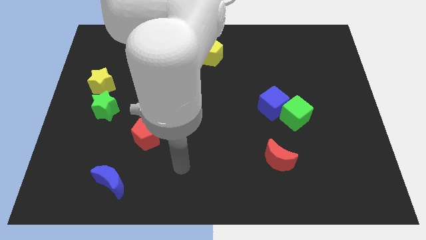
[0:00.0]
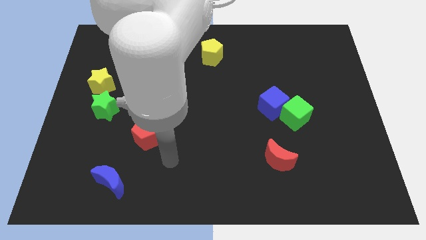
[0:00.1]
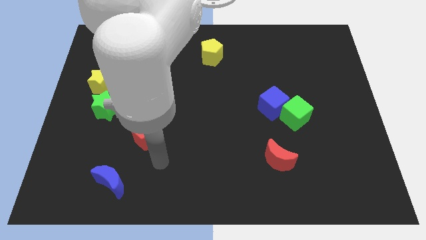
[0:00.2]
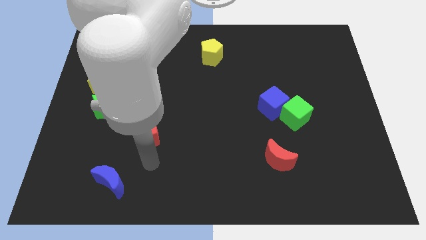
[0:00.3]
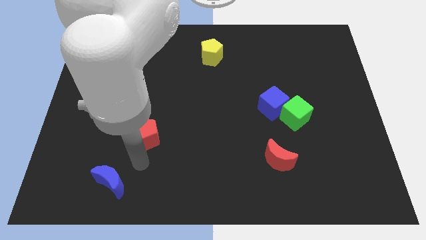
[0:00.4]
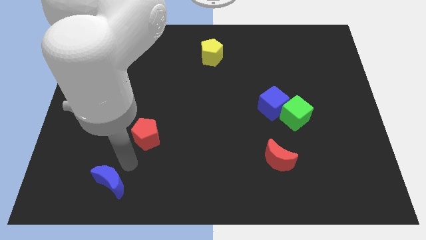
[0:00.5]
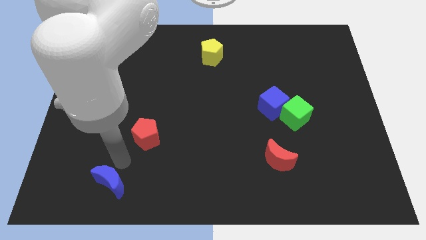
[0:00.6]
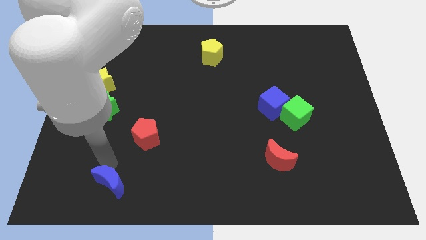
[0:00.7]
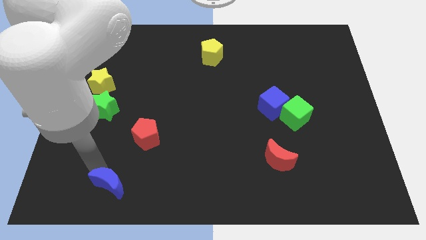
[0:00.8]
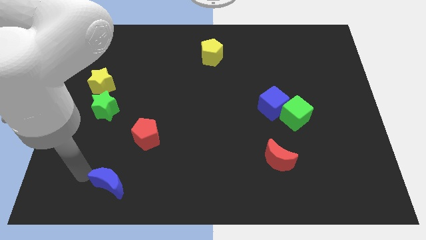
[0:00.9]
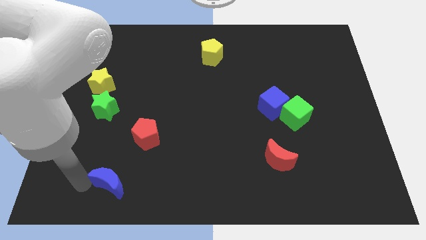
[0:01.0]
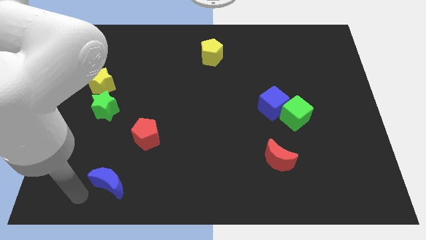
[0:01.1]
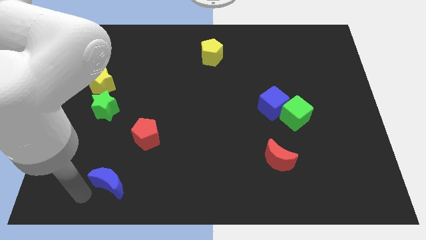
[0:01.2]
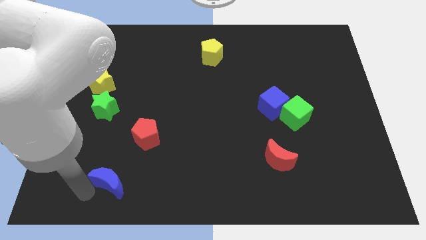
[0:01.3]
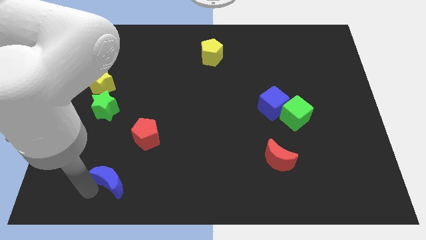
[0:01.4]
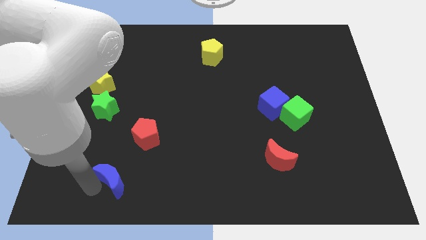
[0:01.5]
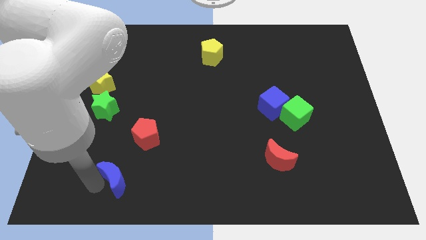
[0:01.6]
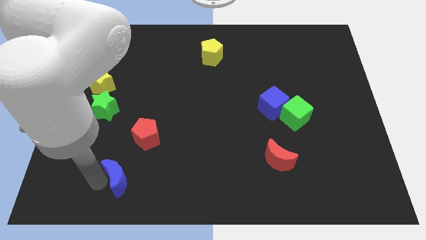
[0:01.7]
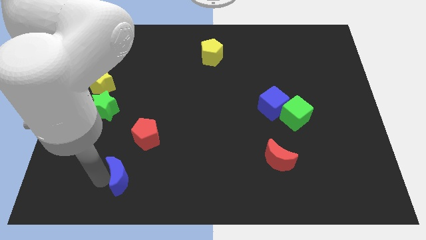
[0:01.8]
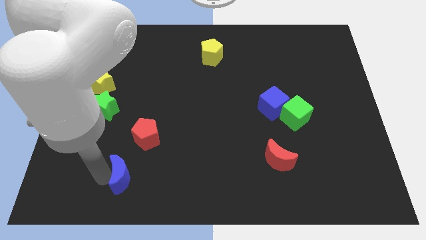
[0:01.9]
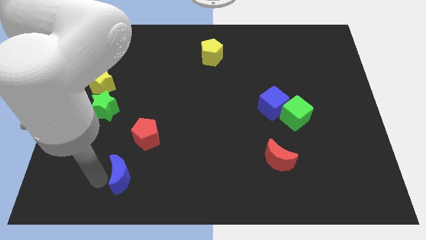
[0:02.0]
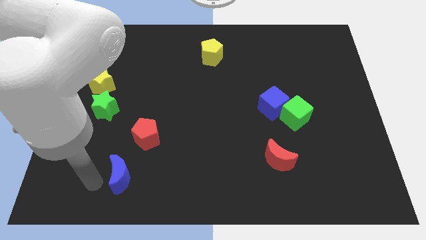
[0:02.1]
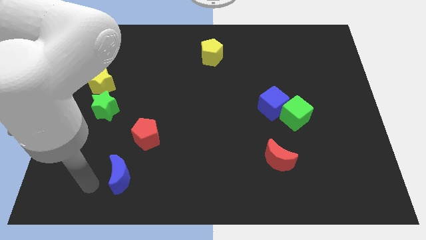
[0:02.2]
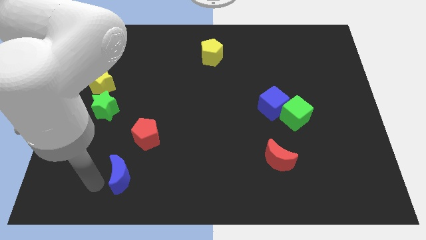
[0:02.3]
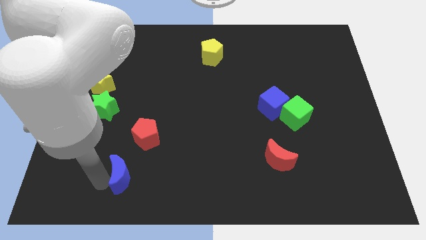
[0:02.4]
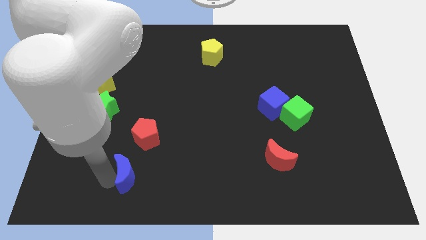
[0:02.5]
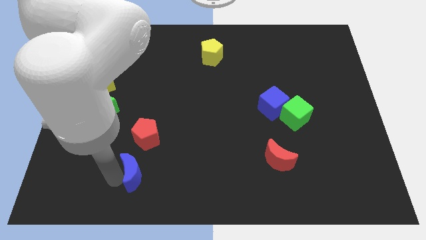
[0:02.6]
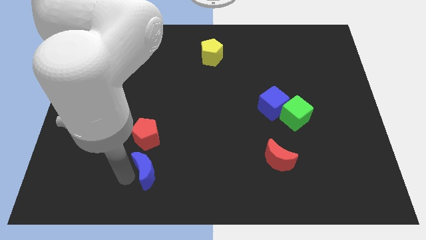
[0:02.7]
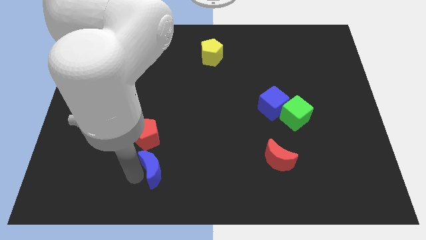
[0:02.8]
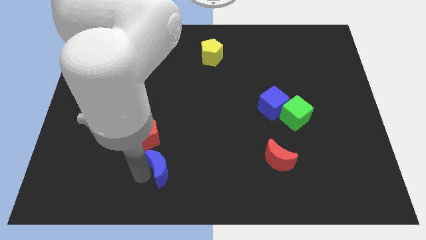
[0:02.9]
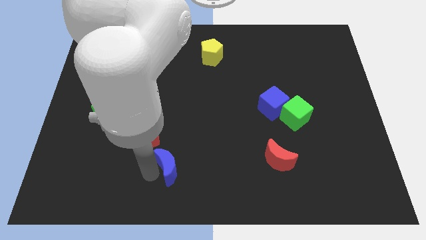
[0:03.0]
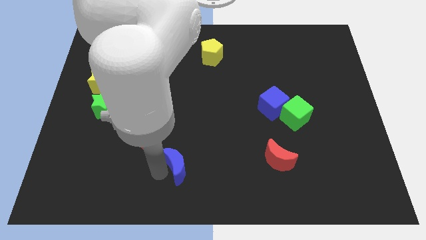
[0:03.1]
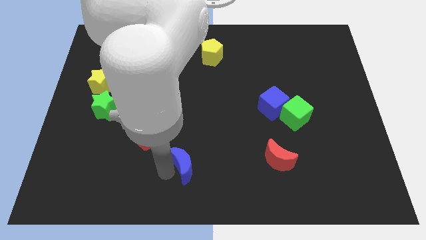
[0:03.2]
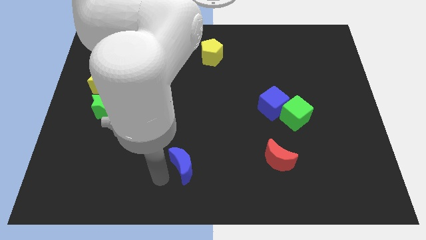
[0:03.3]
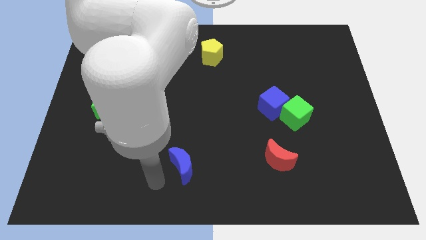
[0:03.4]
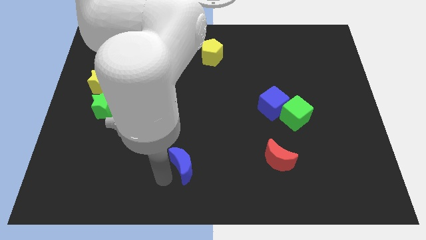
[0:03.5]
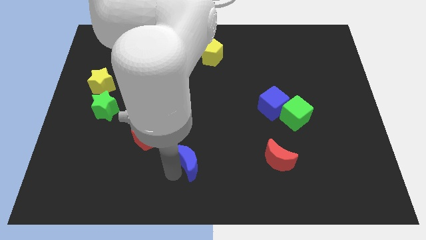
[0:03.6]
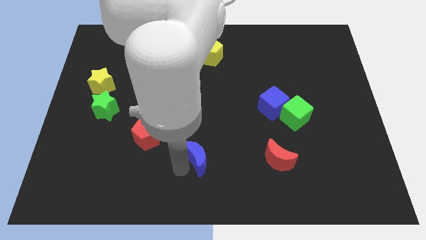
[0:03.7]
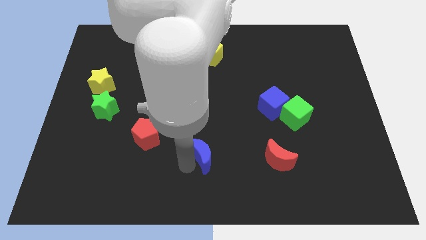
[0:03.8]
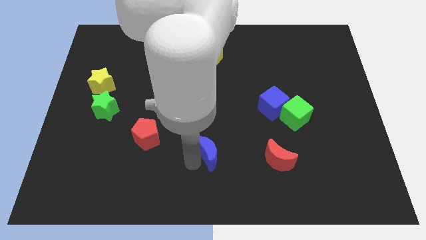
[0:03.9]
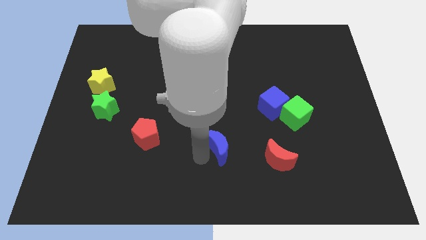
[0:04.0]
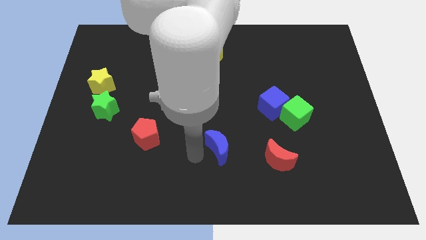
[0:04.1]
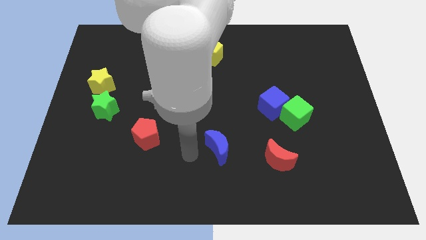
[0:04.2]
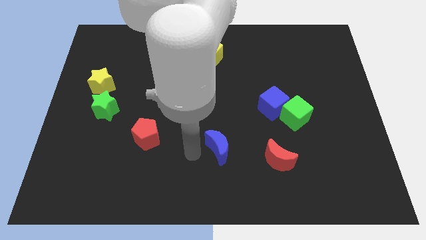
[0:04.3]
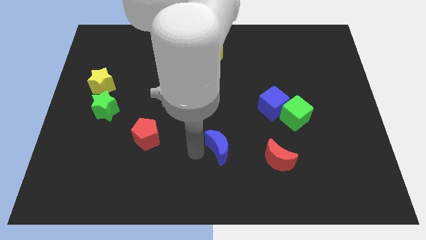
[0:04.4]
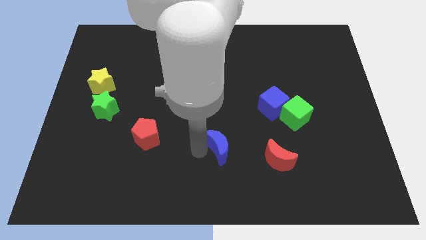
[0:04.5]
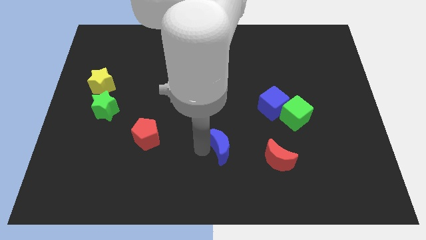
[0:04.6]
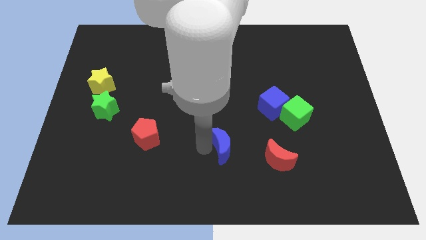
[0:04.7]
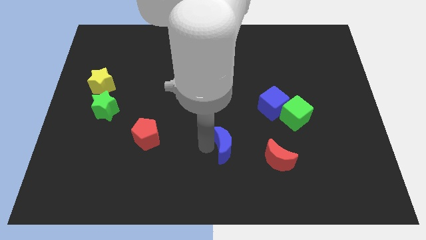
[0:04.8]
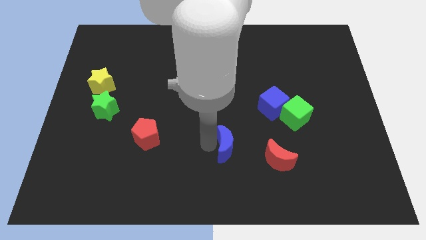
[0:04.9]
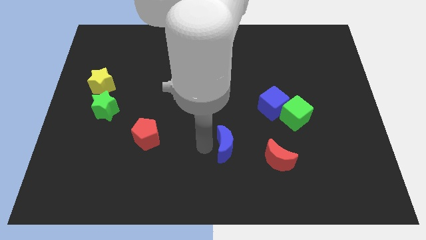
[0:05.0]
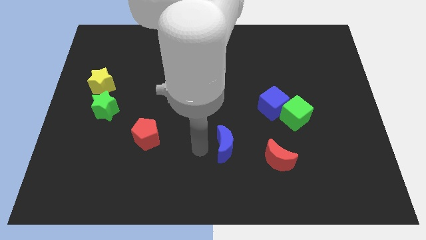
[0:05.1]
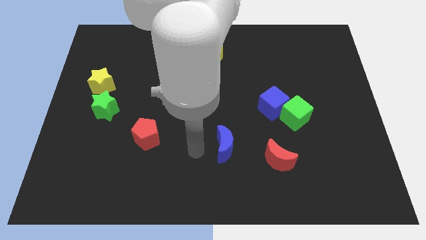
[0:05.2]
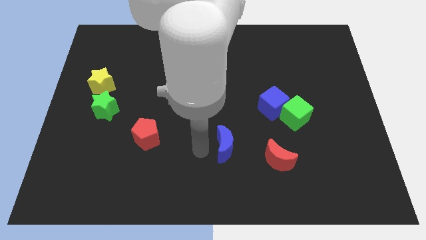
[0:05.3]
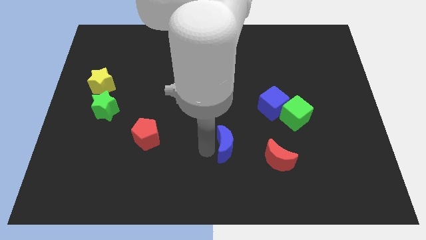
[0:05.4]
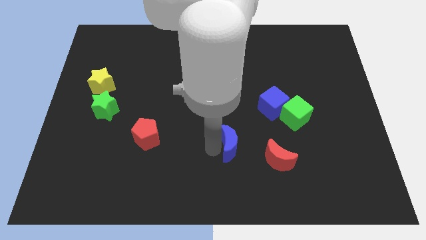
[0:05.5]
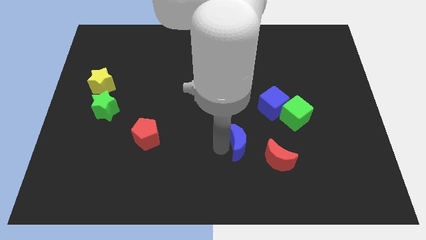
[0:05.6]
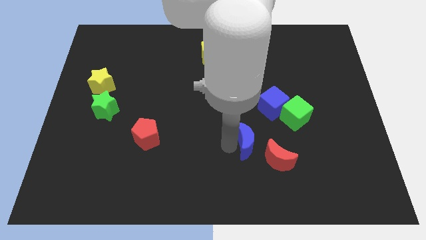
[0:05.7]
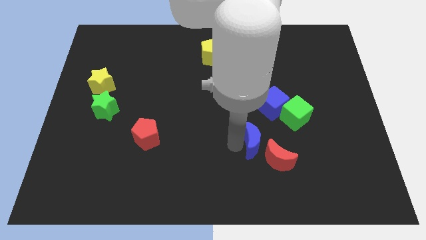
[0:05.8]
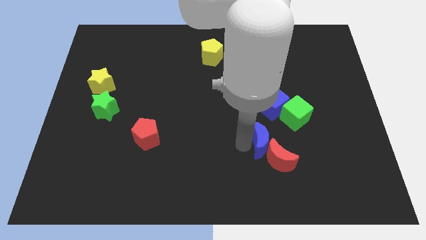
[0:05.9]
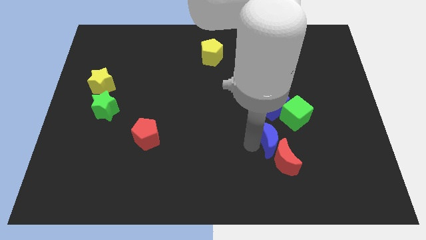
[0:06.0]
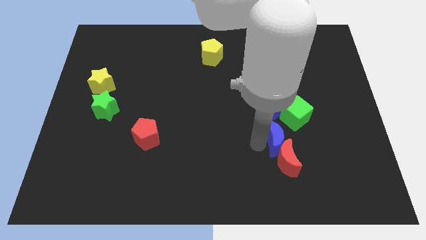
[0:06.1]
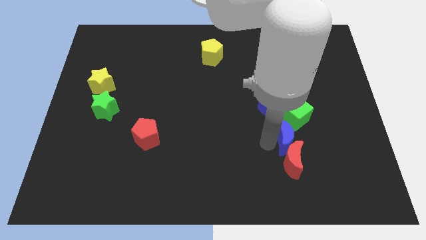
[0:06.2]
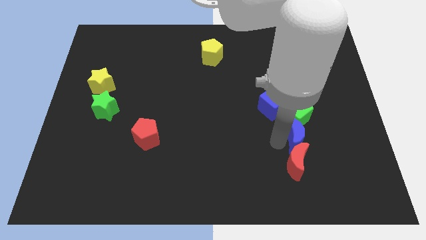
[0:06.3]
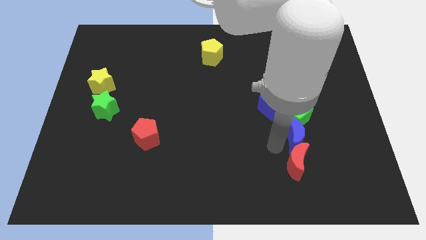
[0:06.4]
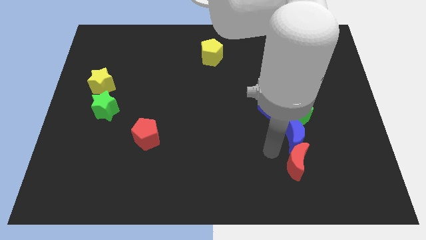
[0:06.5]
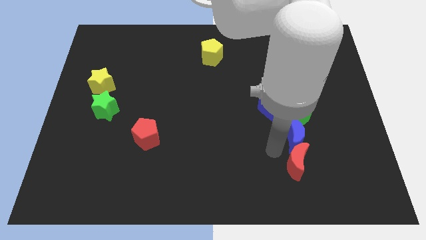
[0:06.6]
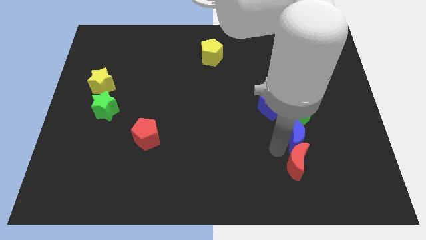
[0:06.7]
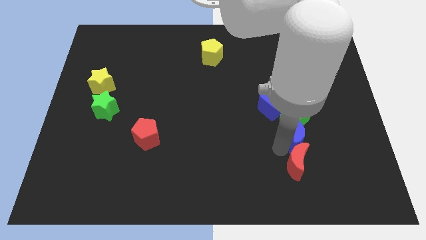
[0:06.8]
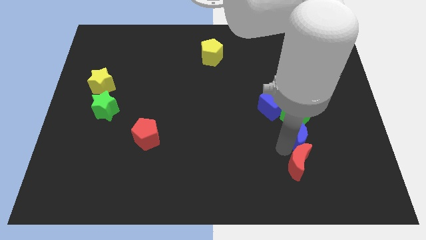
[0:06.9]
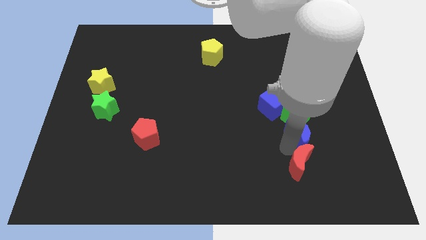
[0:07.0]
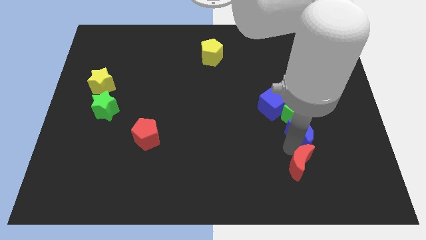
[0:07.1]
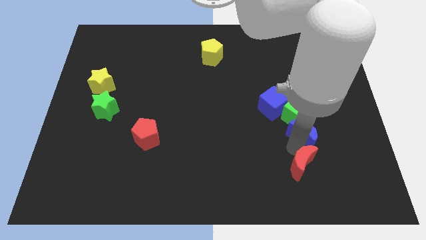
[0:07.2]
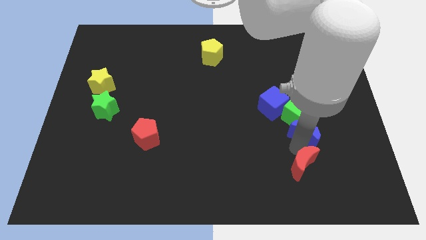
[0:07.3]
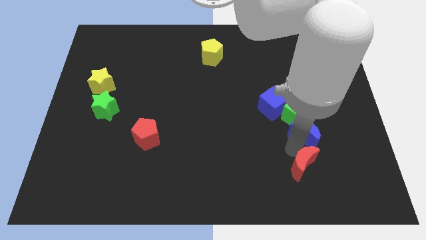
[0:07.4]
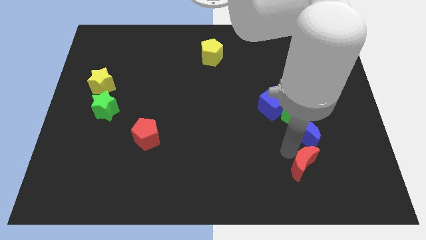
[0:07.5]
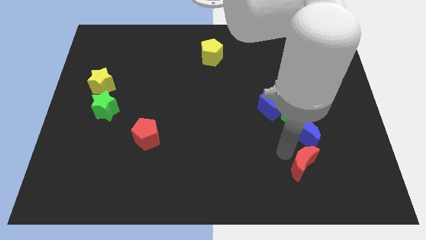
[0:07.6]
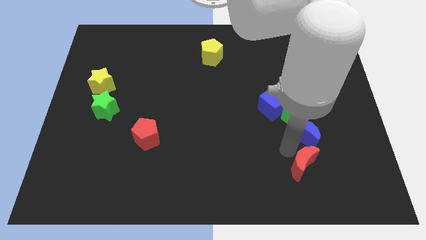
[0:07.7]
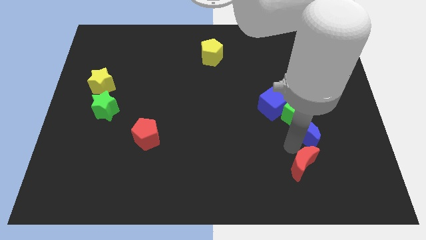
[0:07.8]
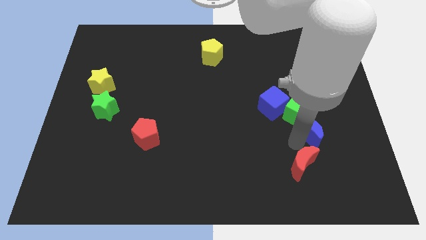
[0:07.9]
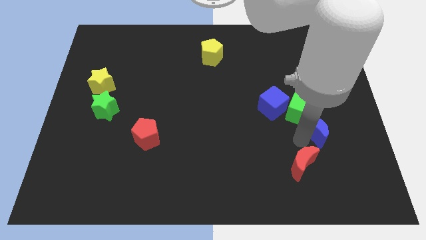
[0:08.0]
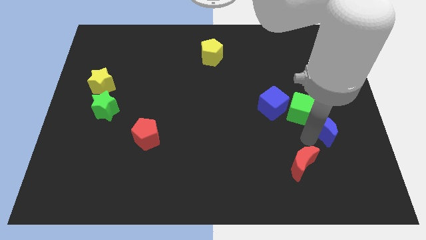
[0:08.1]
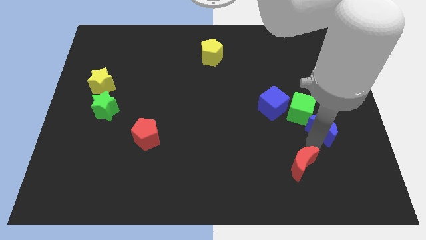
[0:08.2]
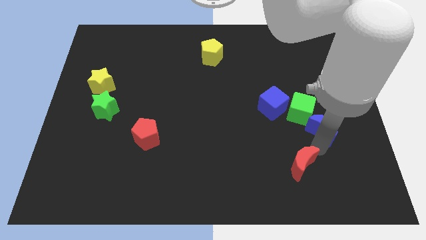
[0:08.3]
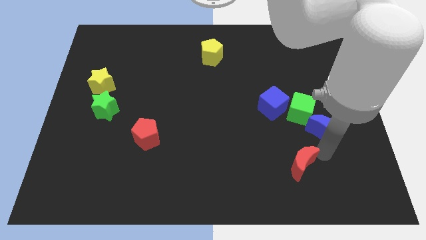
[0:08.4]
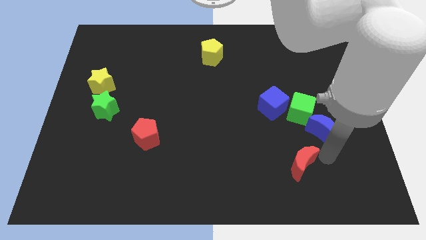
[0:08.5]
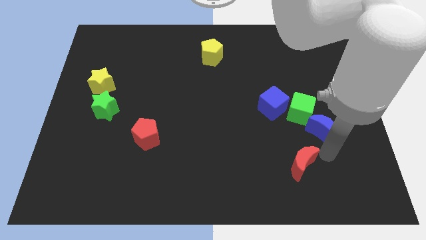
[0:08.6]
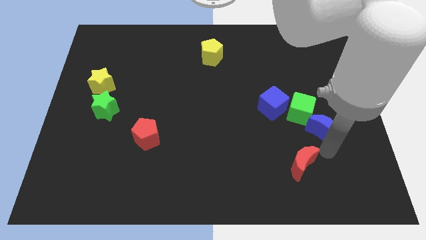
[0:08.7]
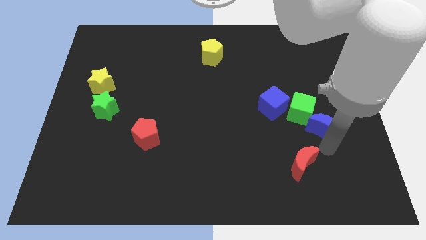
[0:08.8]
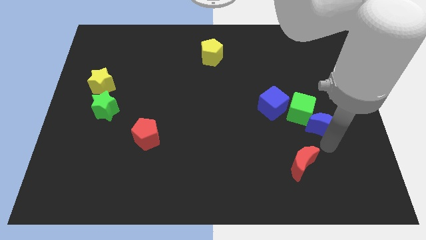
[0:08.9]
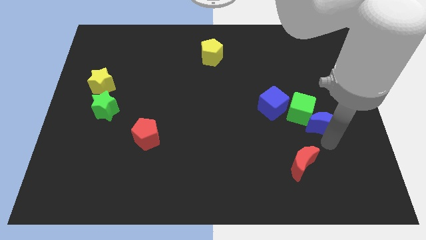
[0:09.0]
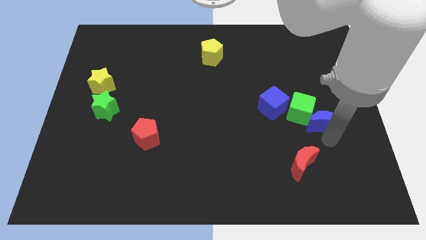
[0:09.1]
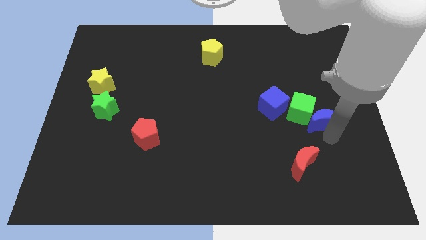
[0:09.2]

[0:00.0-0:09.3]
move the blue moon to the right of the blue cube
